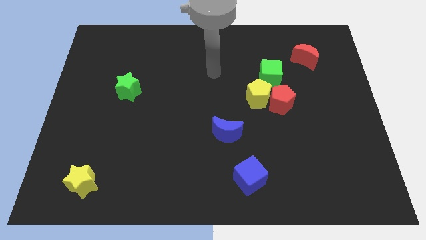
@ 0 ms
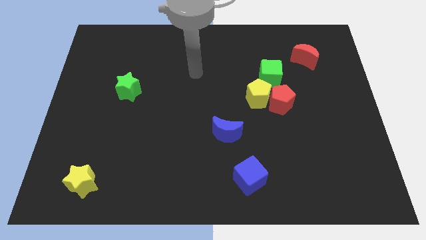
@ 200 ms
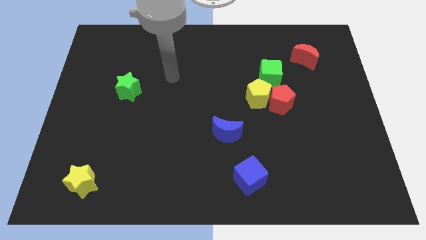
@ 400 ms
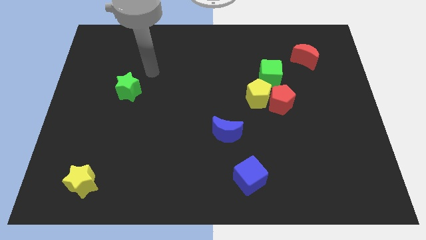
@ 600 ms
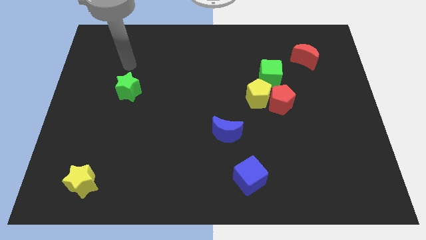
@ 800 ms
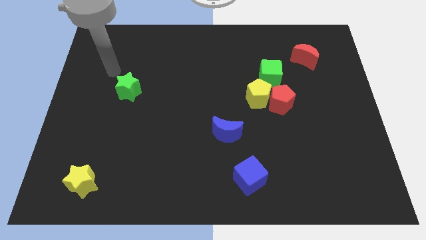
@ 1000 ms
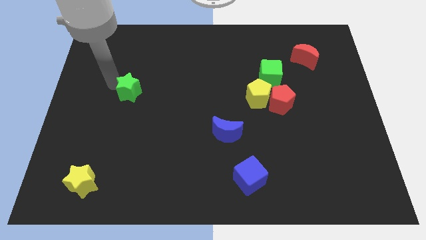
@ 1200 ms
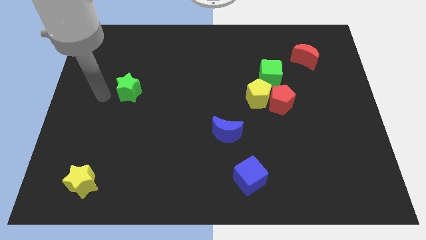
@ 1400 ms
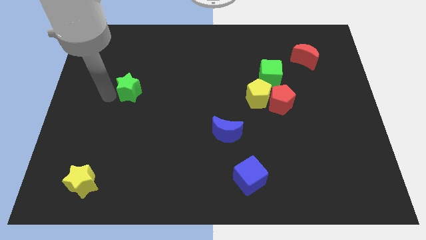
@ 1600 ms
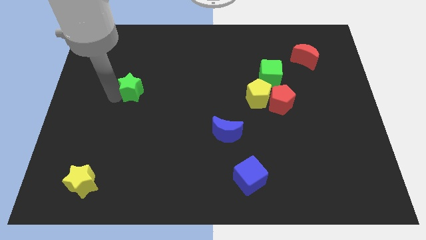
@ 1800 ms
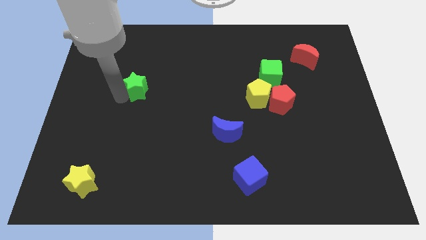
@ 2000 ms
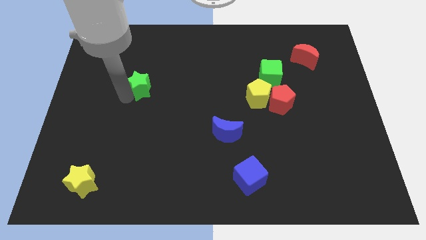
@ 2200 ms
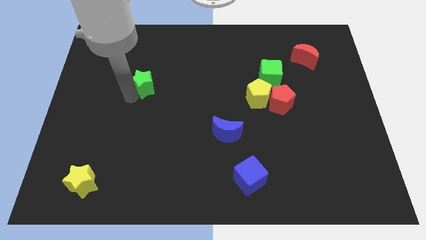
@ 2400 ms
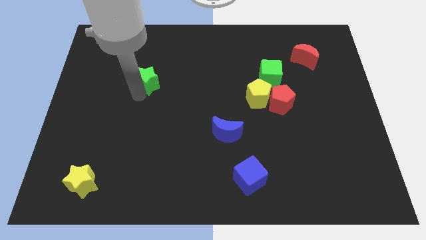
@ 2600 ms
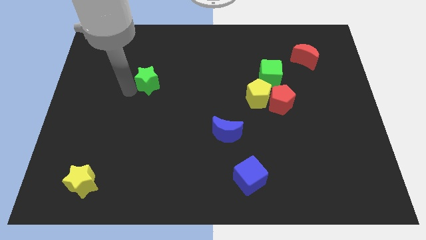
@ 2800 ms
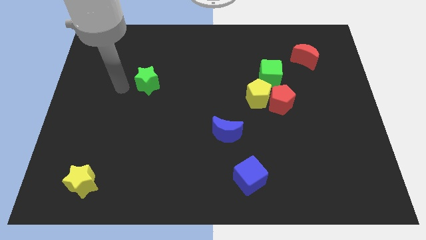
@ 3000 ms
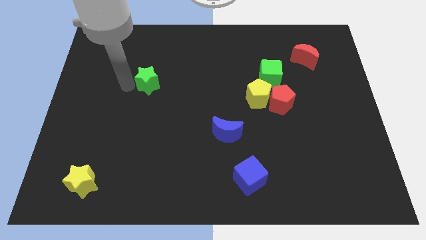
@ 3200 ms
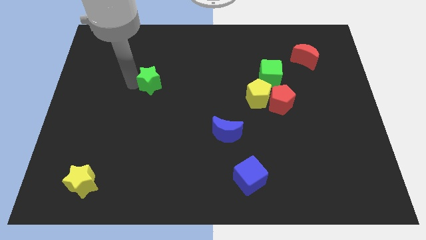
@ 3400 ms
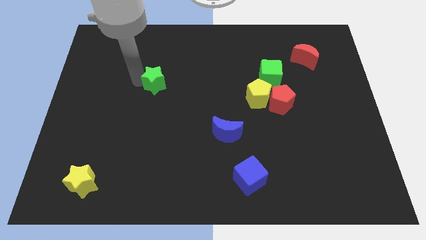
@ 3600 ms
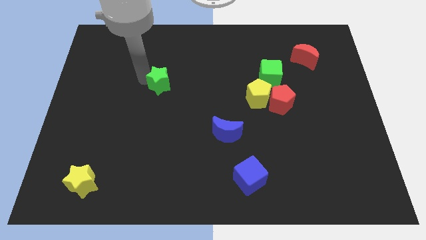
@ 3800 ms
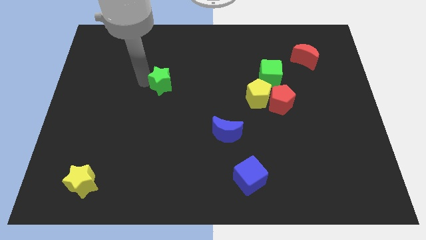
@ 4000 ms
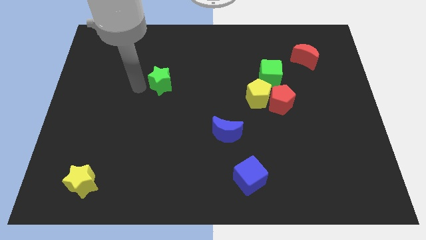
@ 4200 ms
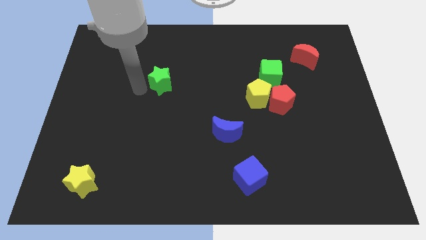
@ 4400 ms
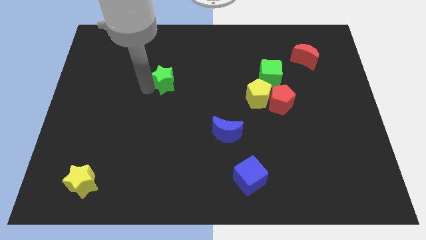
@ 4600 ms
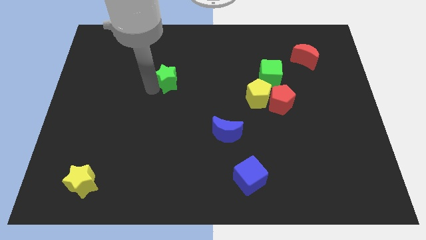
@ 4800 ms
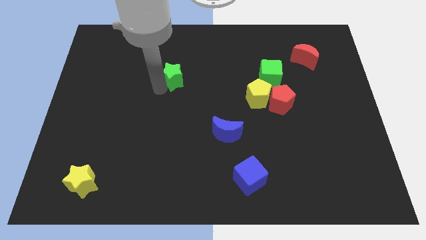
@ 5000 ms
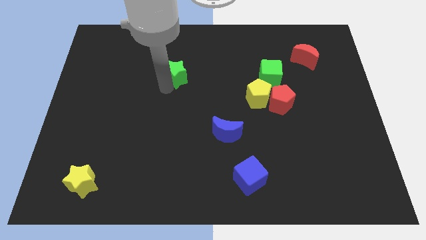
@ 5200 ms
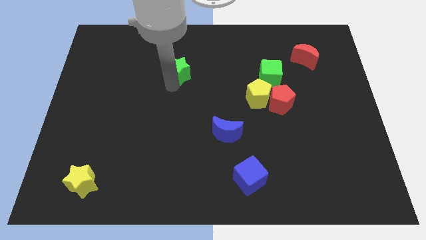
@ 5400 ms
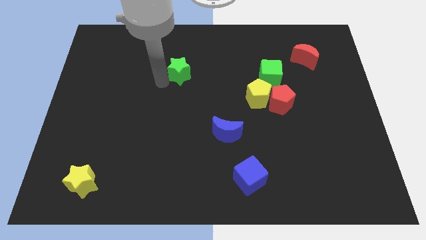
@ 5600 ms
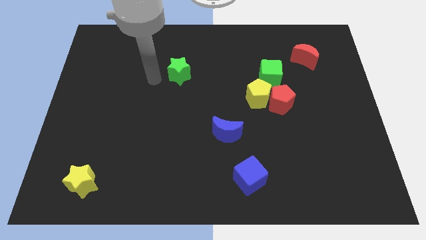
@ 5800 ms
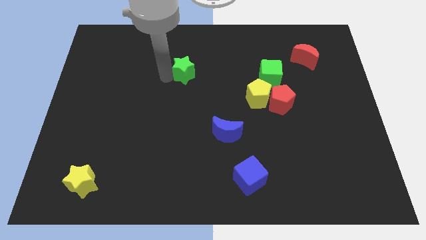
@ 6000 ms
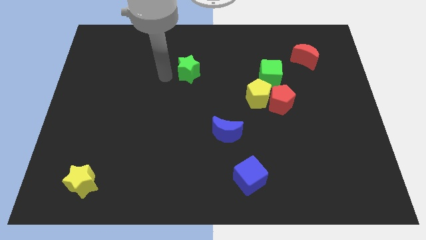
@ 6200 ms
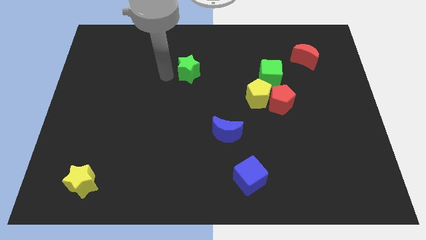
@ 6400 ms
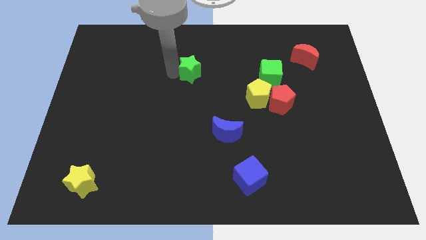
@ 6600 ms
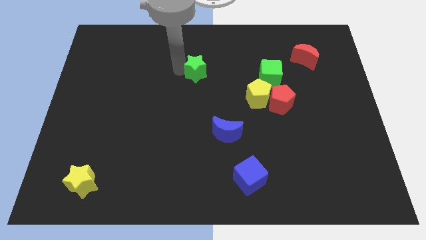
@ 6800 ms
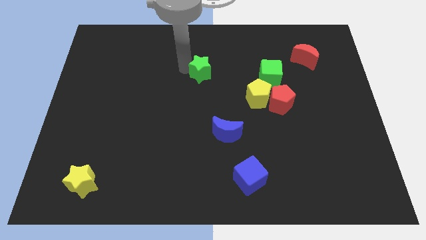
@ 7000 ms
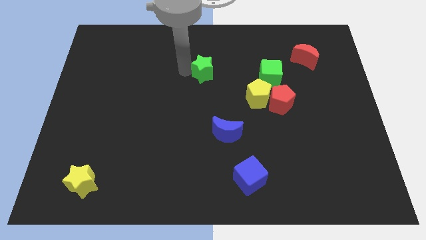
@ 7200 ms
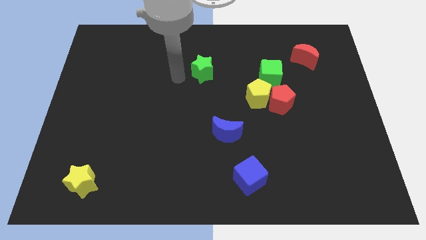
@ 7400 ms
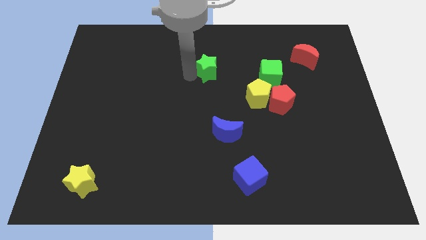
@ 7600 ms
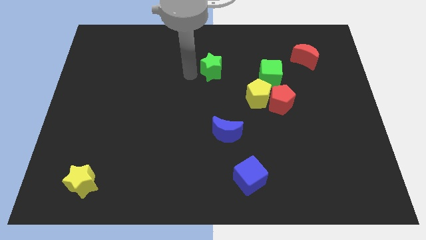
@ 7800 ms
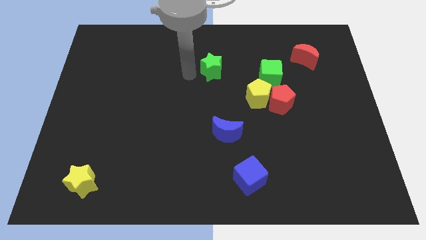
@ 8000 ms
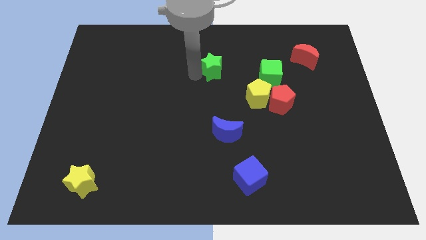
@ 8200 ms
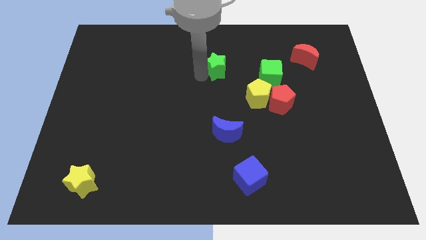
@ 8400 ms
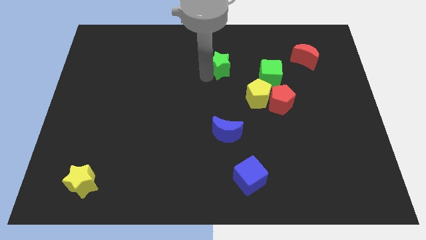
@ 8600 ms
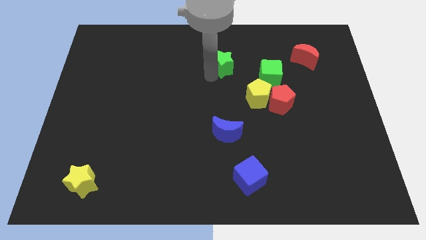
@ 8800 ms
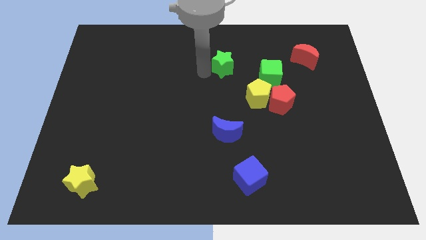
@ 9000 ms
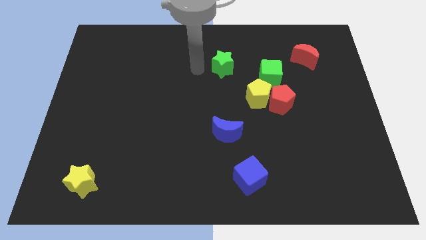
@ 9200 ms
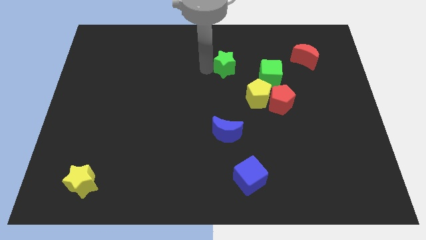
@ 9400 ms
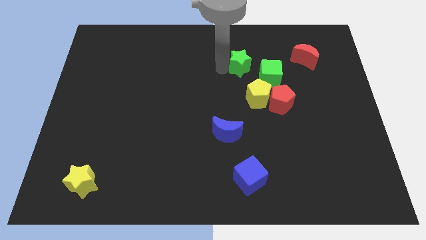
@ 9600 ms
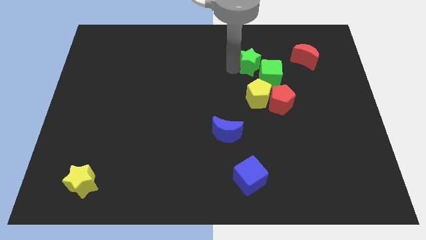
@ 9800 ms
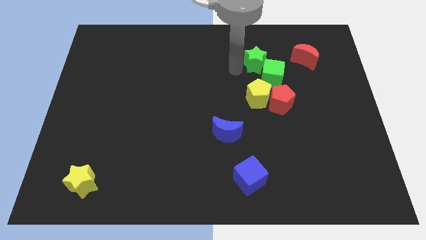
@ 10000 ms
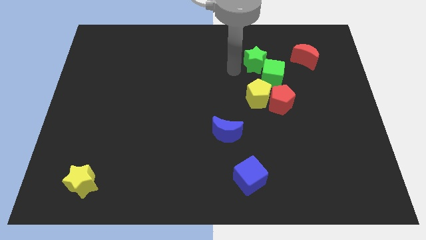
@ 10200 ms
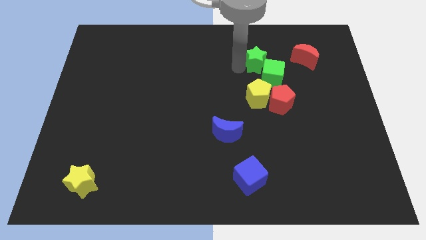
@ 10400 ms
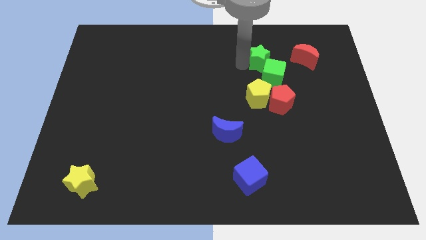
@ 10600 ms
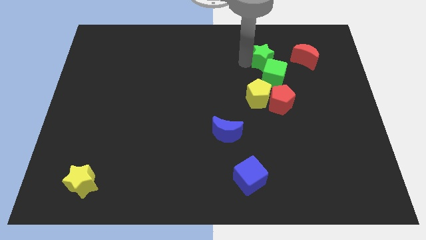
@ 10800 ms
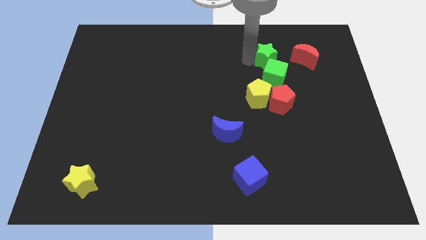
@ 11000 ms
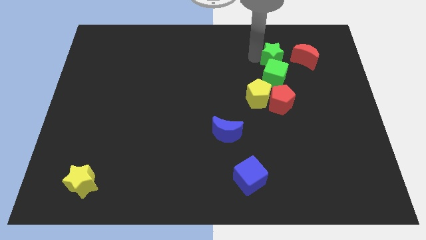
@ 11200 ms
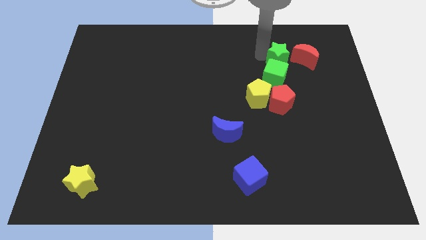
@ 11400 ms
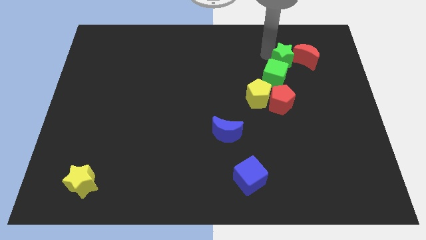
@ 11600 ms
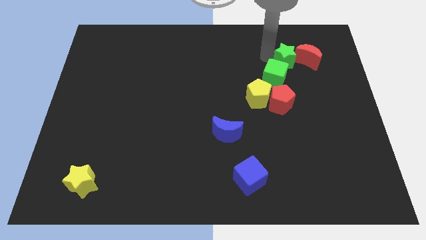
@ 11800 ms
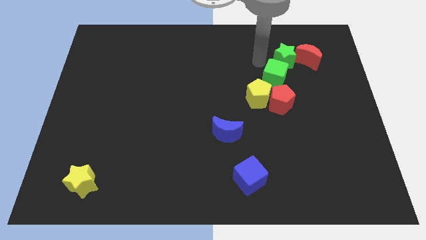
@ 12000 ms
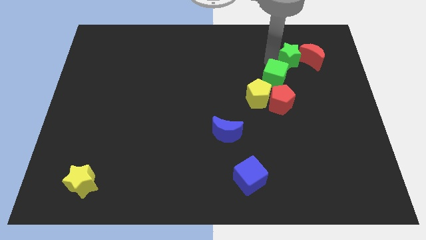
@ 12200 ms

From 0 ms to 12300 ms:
push the green star next to the red moon

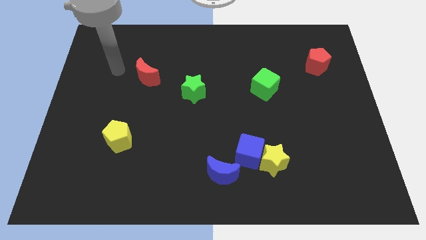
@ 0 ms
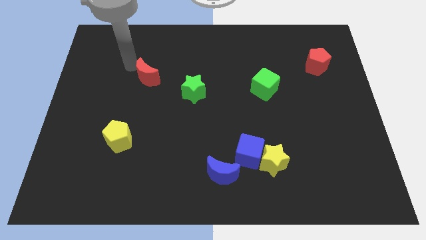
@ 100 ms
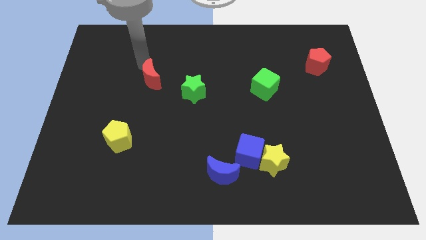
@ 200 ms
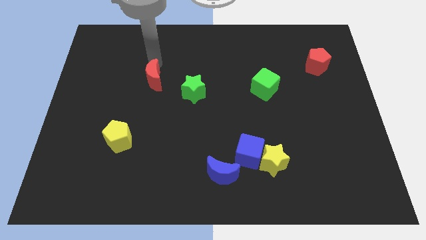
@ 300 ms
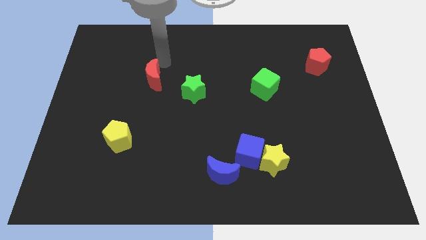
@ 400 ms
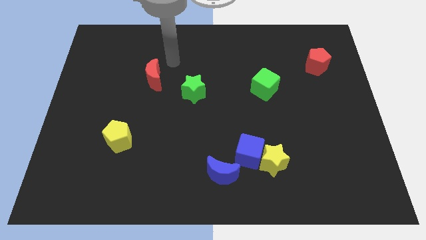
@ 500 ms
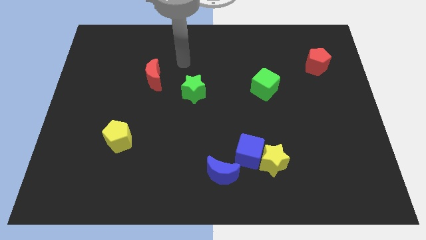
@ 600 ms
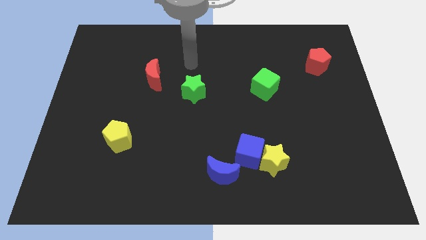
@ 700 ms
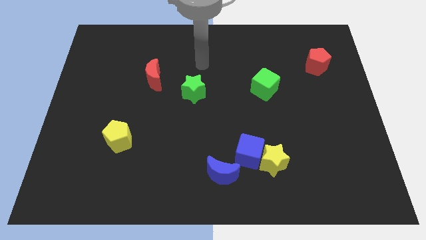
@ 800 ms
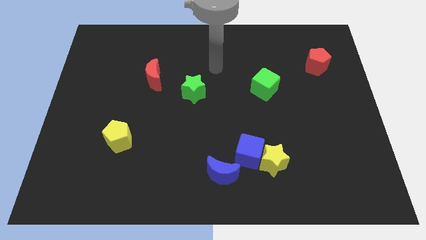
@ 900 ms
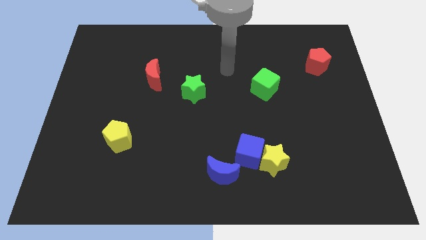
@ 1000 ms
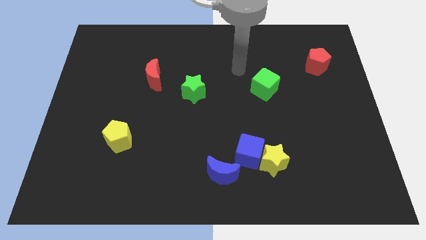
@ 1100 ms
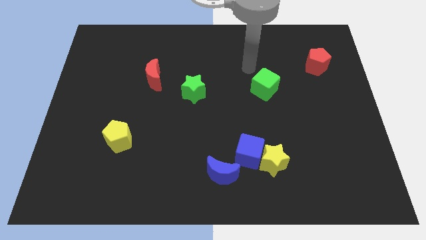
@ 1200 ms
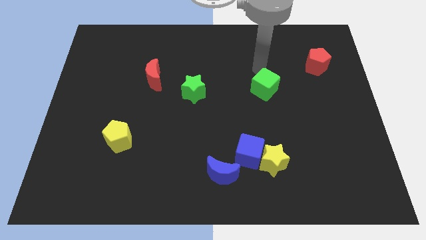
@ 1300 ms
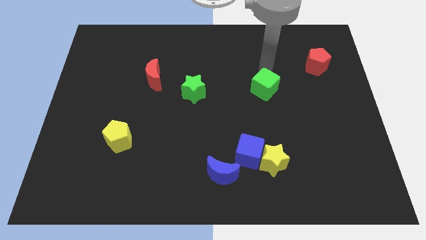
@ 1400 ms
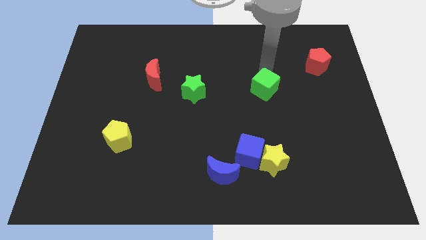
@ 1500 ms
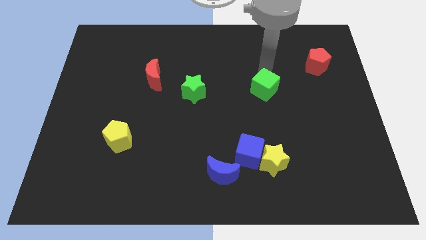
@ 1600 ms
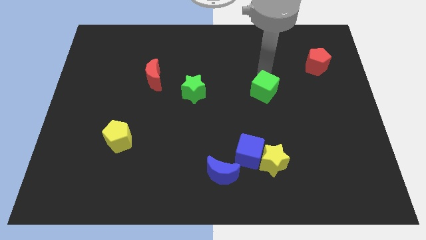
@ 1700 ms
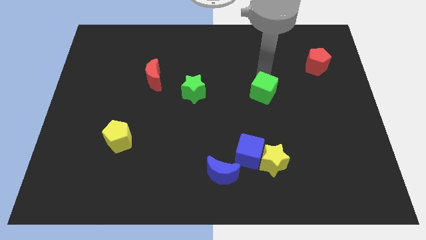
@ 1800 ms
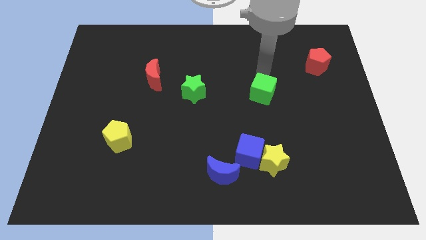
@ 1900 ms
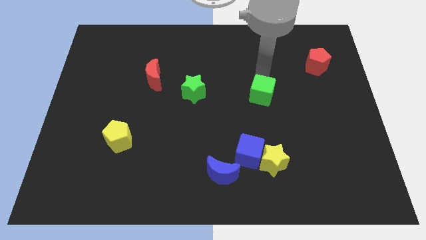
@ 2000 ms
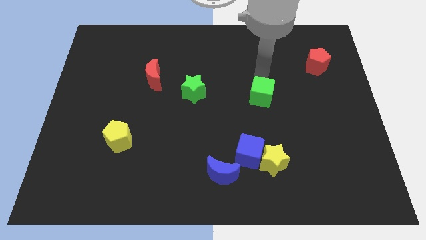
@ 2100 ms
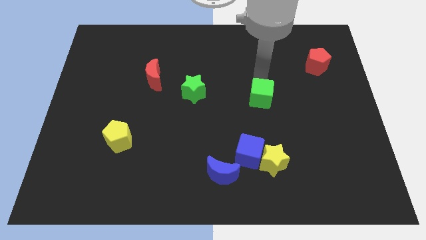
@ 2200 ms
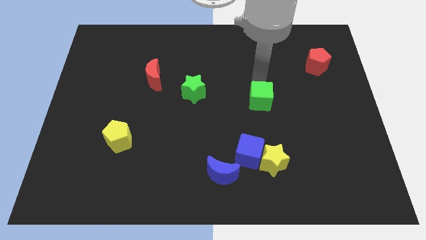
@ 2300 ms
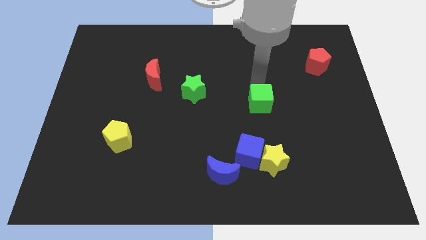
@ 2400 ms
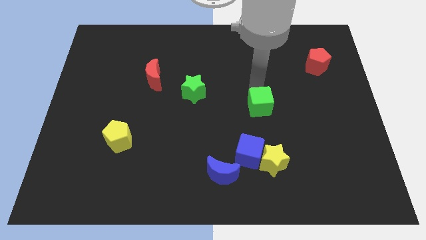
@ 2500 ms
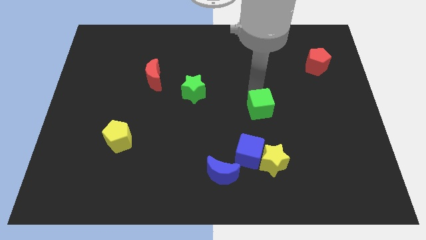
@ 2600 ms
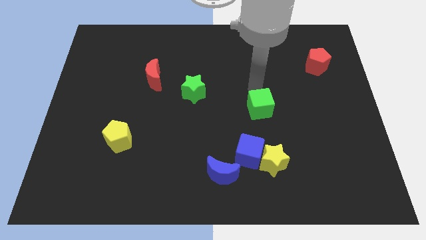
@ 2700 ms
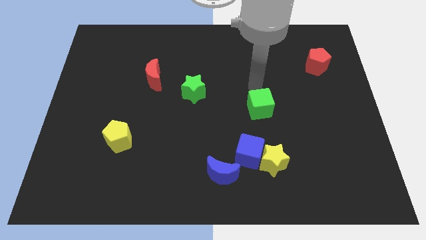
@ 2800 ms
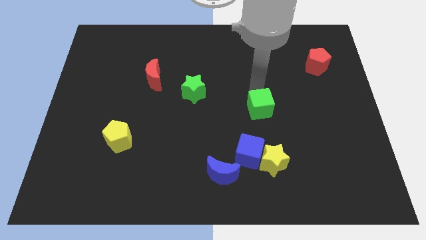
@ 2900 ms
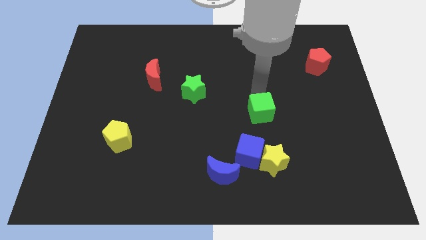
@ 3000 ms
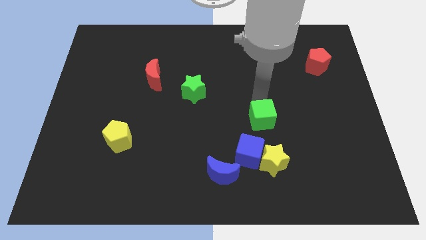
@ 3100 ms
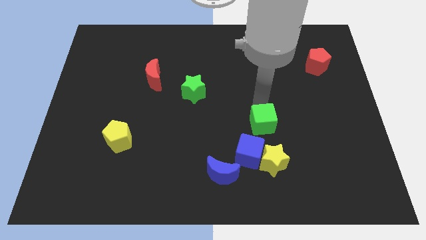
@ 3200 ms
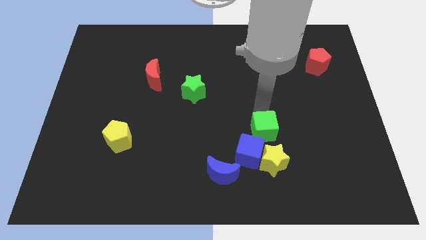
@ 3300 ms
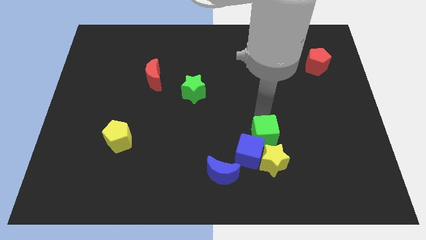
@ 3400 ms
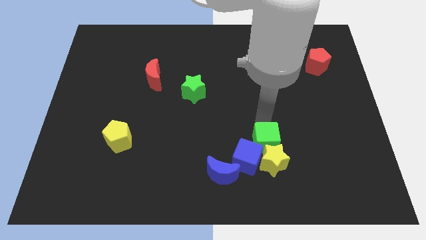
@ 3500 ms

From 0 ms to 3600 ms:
slide the green cube towards the yellow star
